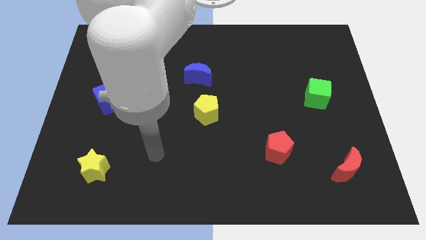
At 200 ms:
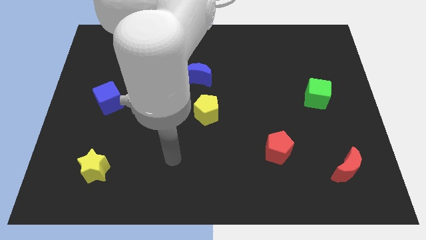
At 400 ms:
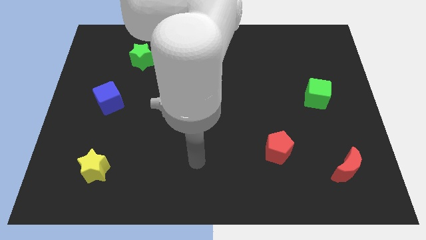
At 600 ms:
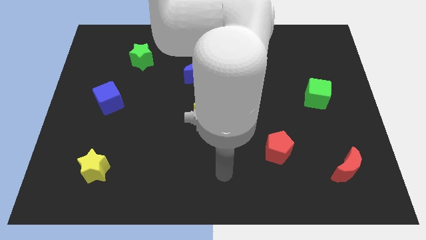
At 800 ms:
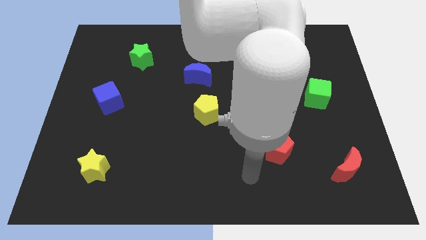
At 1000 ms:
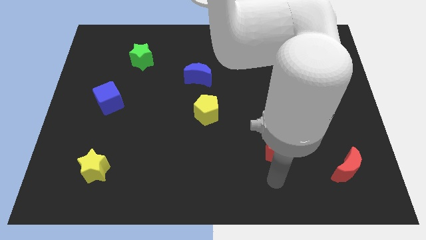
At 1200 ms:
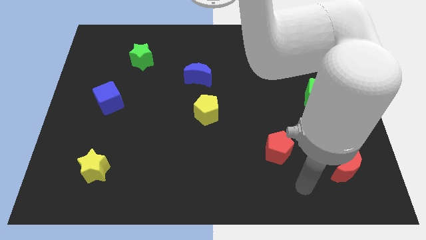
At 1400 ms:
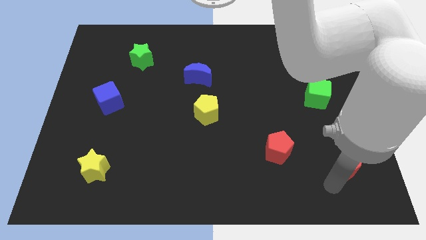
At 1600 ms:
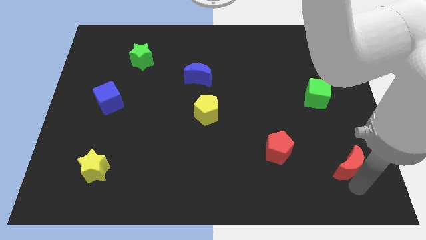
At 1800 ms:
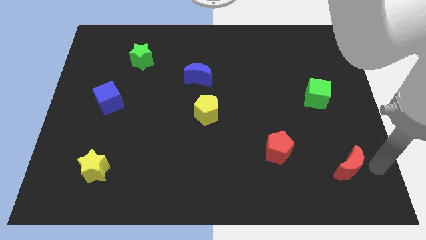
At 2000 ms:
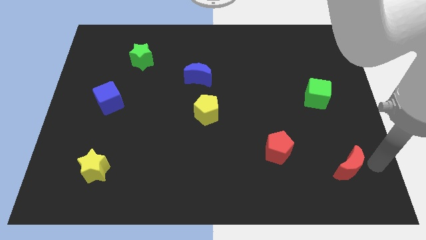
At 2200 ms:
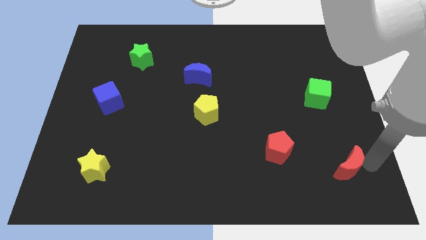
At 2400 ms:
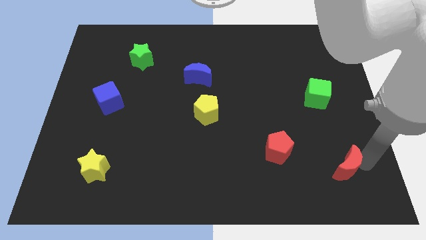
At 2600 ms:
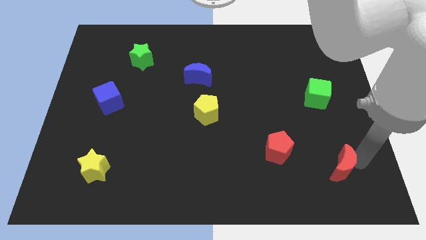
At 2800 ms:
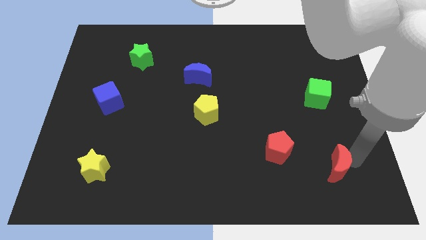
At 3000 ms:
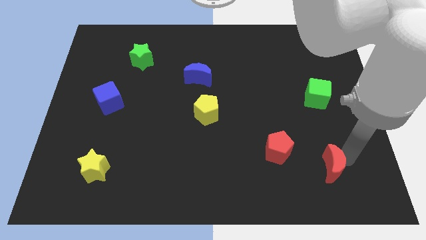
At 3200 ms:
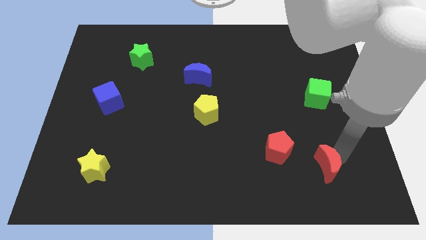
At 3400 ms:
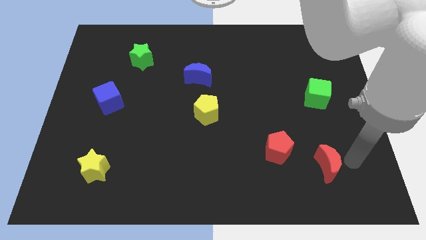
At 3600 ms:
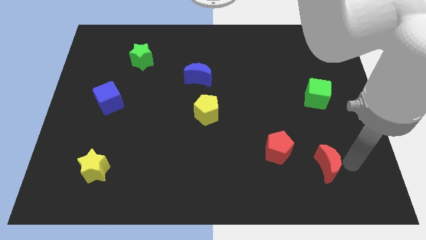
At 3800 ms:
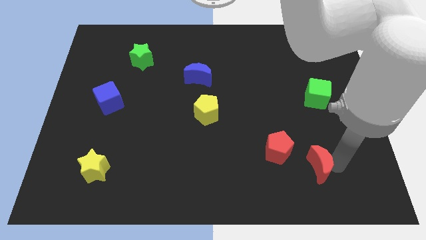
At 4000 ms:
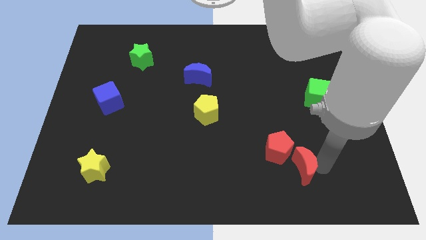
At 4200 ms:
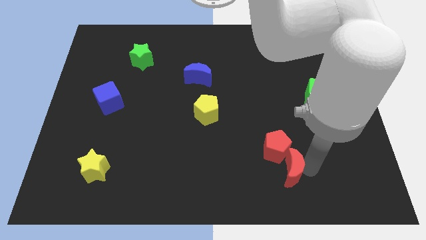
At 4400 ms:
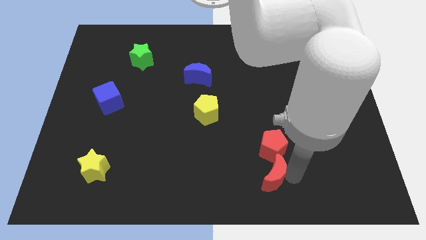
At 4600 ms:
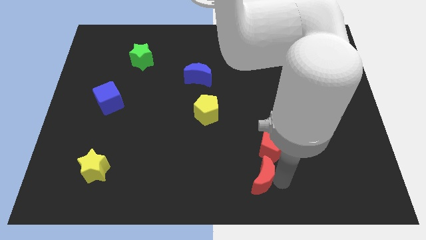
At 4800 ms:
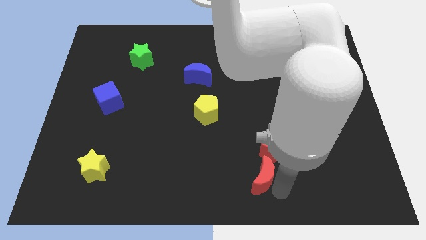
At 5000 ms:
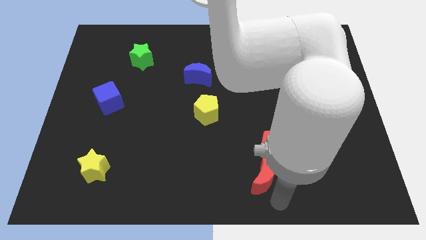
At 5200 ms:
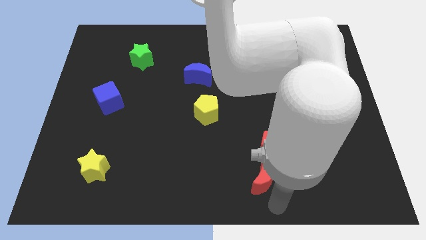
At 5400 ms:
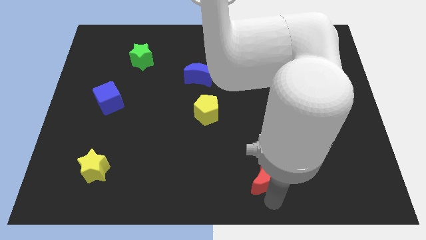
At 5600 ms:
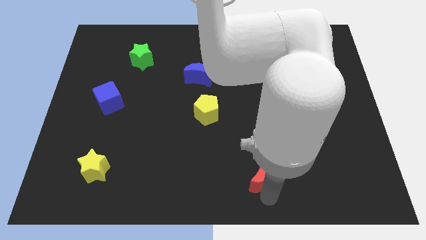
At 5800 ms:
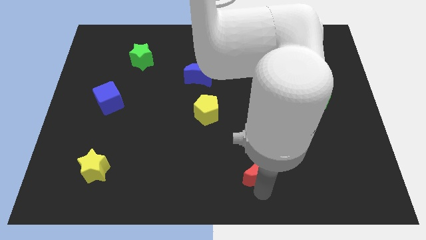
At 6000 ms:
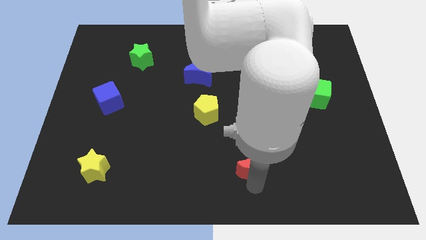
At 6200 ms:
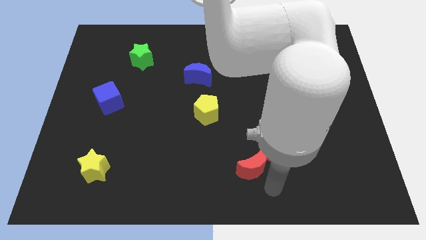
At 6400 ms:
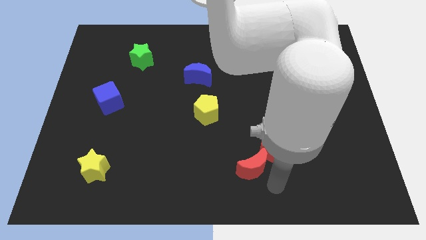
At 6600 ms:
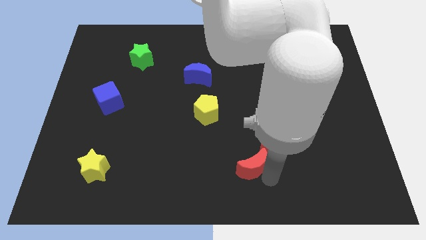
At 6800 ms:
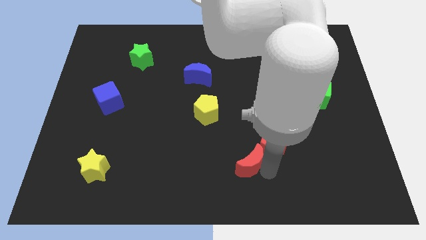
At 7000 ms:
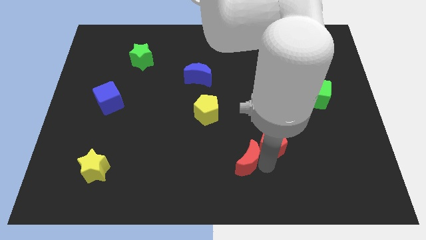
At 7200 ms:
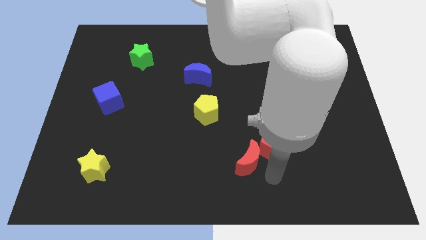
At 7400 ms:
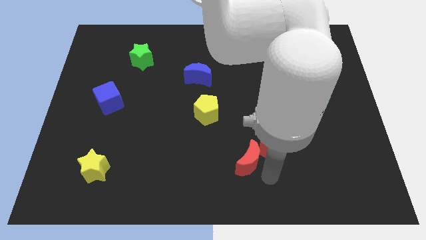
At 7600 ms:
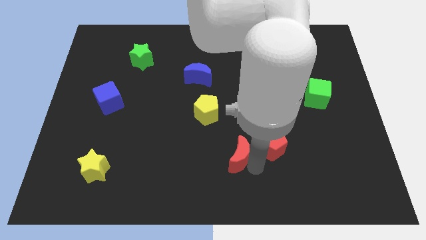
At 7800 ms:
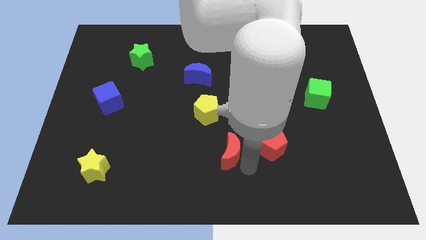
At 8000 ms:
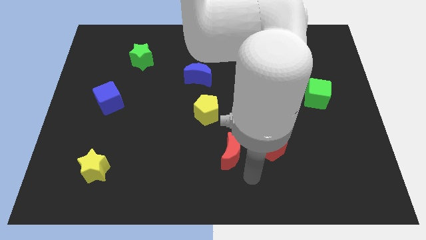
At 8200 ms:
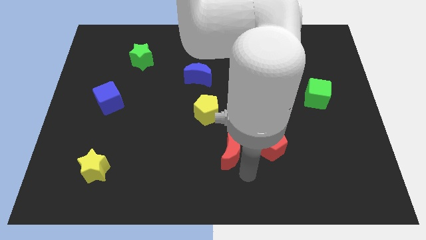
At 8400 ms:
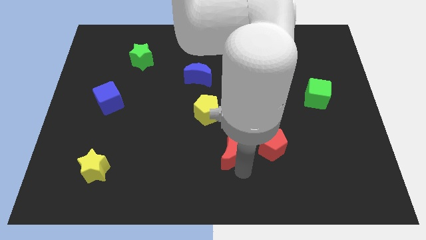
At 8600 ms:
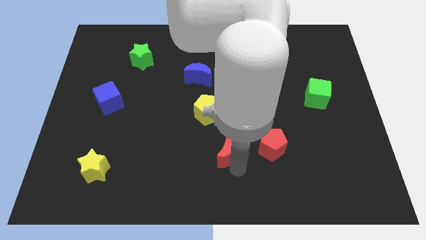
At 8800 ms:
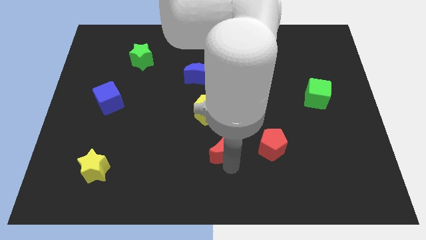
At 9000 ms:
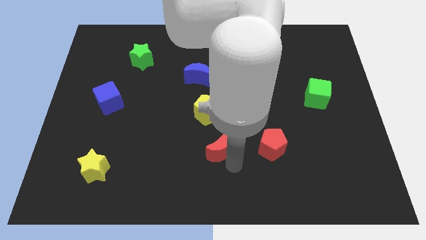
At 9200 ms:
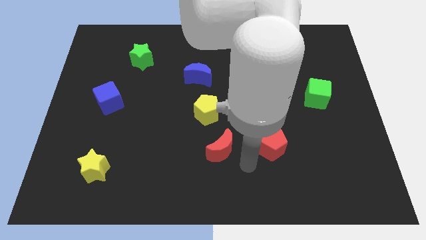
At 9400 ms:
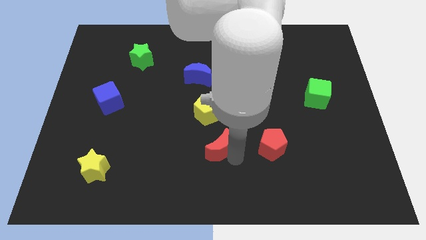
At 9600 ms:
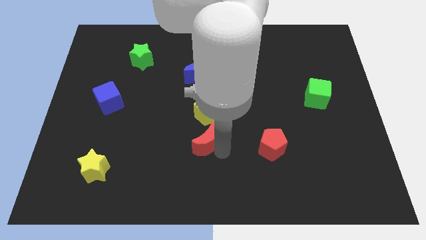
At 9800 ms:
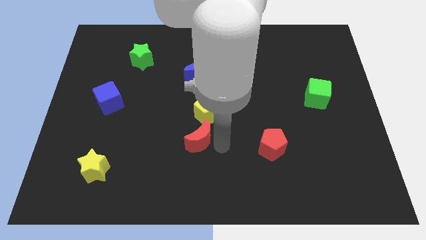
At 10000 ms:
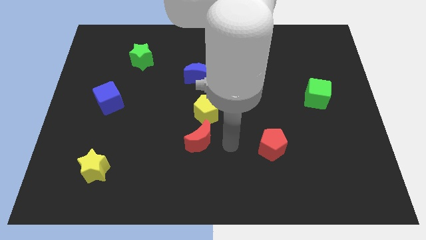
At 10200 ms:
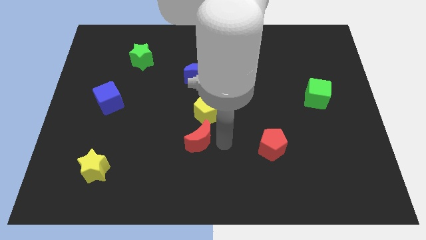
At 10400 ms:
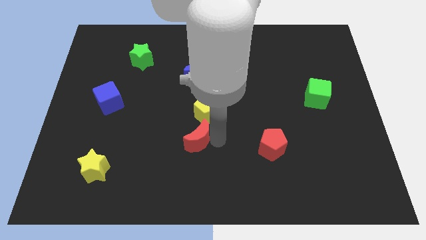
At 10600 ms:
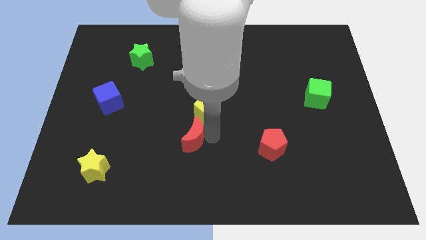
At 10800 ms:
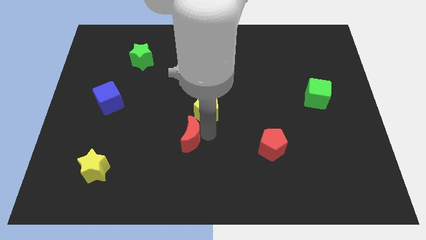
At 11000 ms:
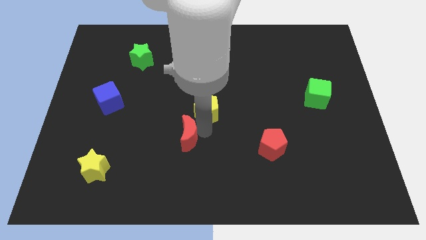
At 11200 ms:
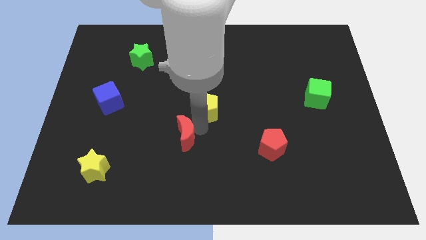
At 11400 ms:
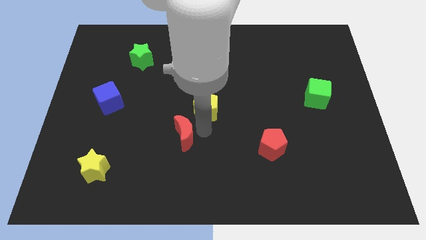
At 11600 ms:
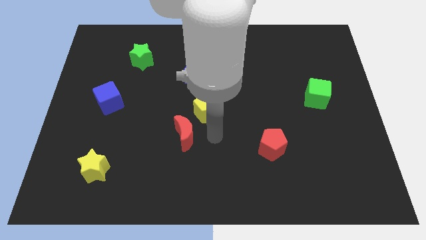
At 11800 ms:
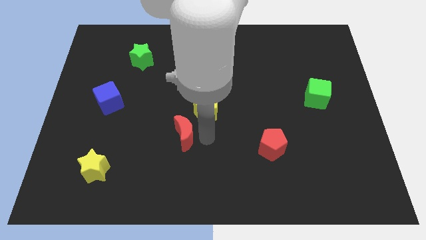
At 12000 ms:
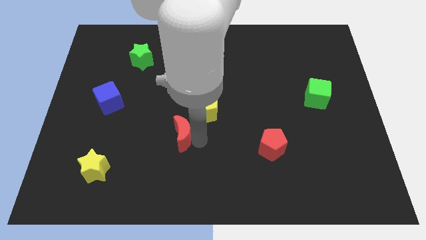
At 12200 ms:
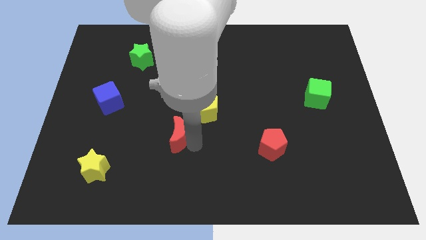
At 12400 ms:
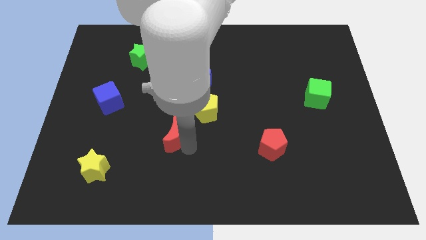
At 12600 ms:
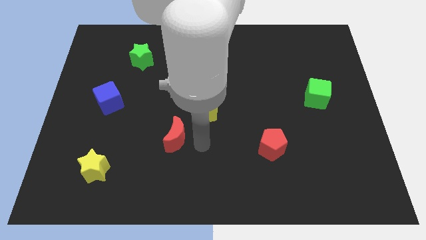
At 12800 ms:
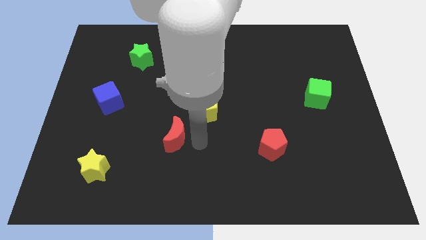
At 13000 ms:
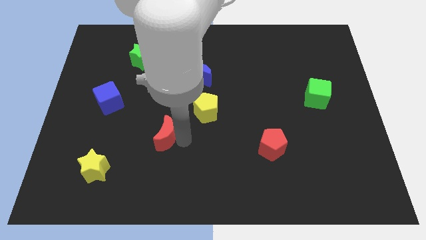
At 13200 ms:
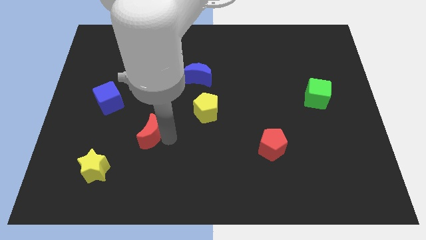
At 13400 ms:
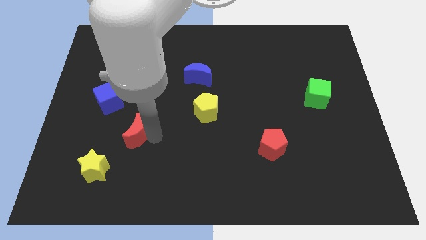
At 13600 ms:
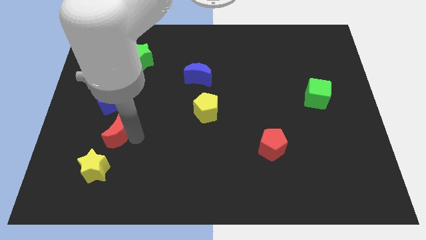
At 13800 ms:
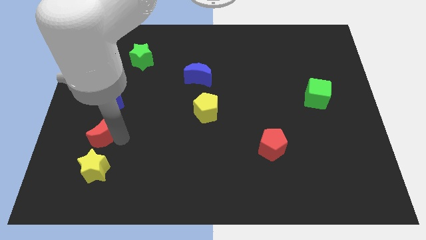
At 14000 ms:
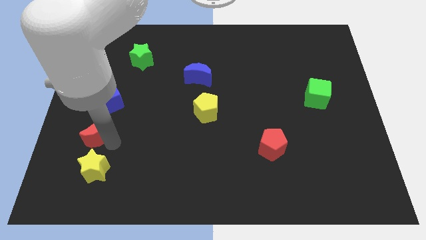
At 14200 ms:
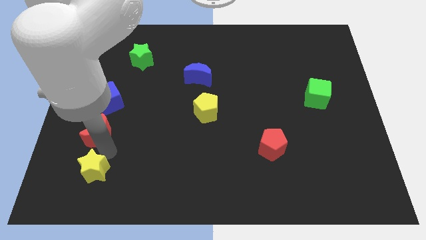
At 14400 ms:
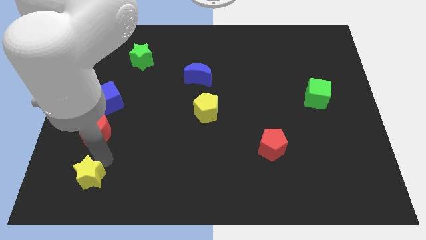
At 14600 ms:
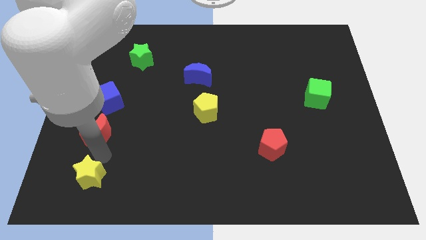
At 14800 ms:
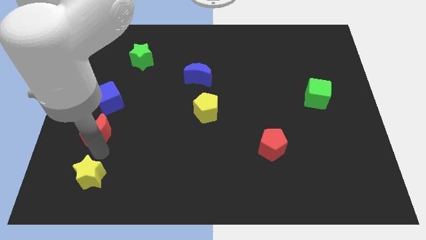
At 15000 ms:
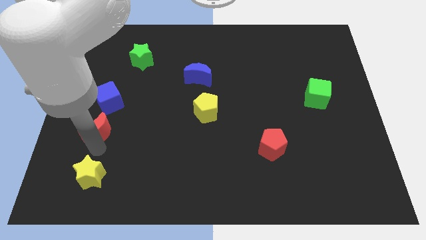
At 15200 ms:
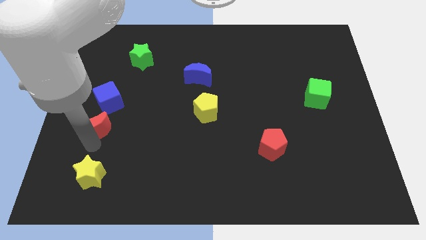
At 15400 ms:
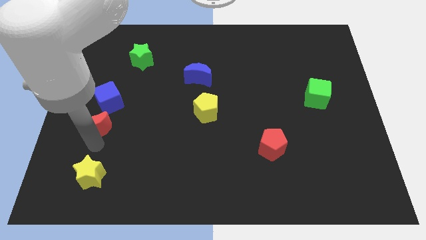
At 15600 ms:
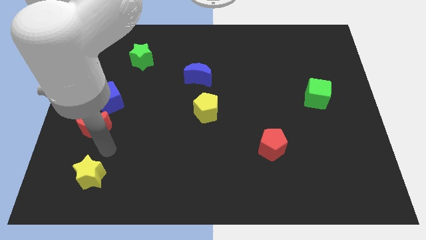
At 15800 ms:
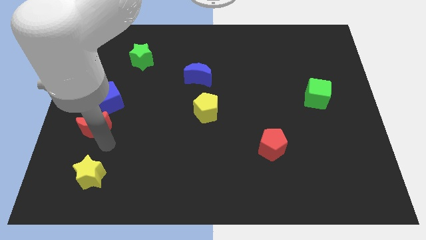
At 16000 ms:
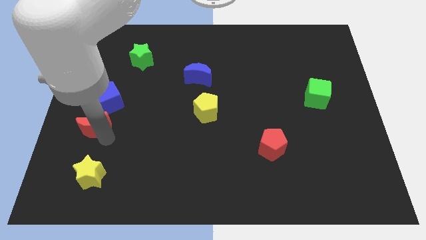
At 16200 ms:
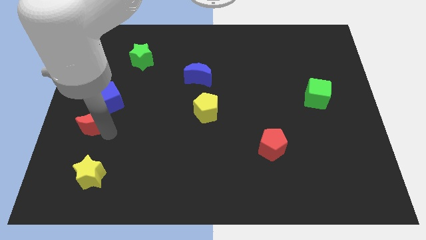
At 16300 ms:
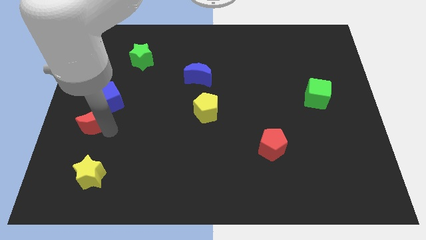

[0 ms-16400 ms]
put the red moon to the left side
